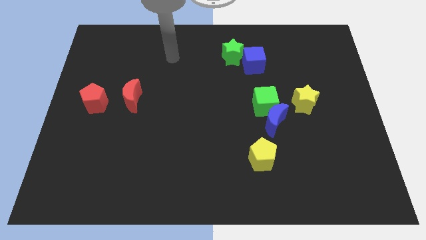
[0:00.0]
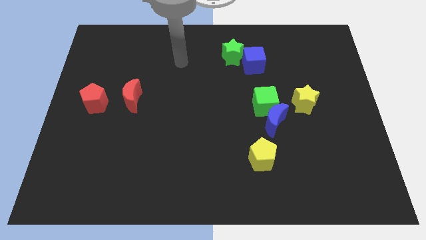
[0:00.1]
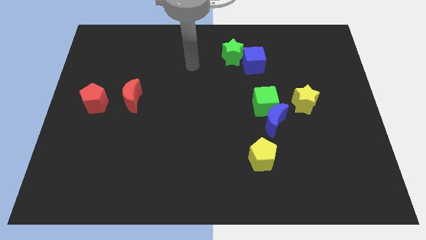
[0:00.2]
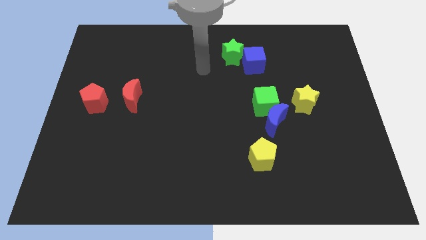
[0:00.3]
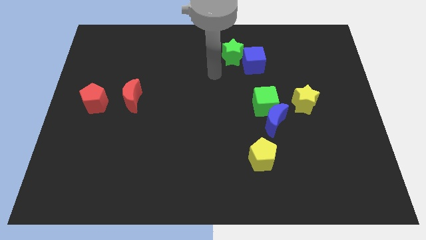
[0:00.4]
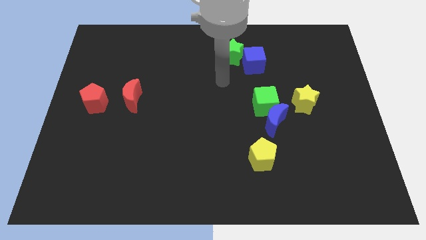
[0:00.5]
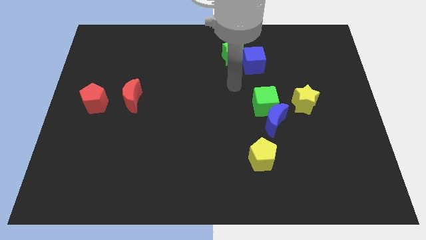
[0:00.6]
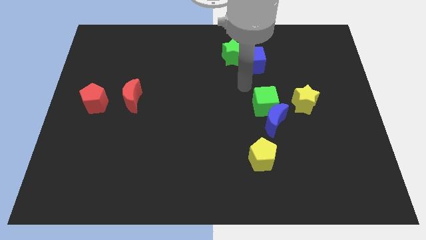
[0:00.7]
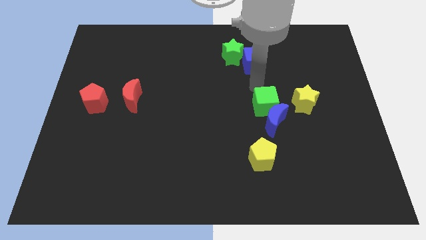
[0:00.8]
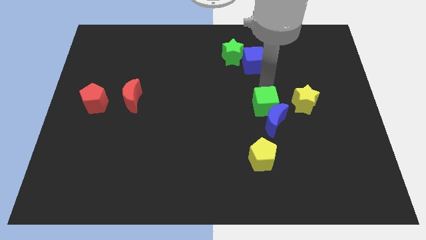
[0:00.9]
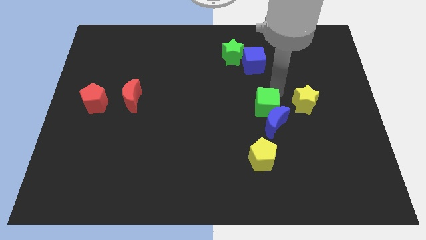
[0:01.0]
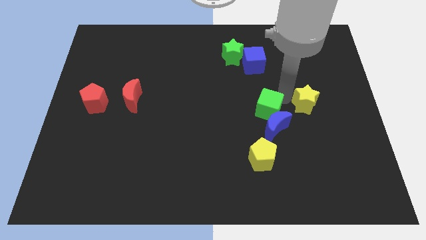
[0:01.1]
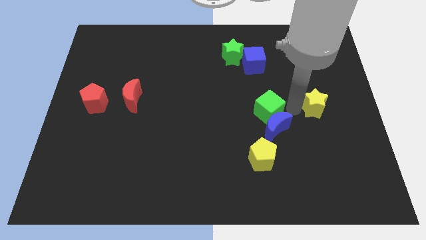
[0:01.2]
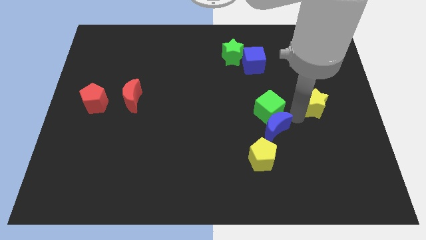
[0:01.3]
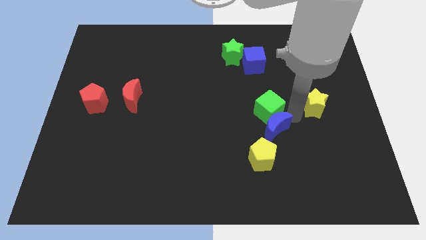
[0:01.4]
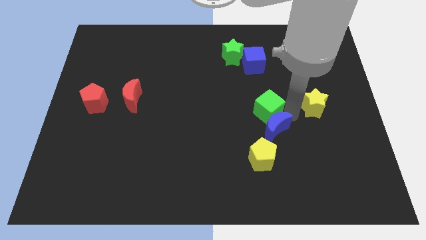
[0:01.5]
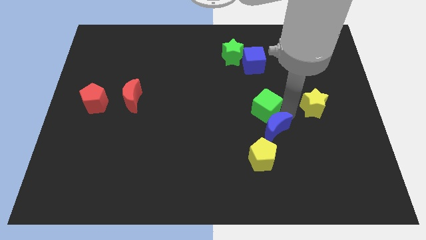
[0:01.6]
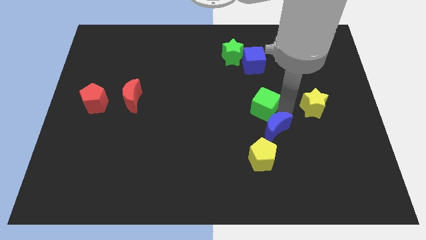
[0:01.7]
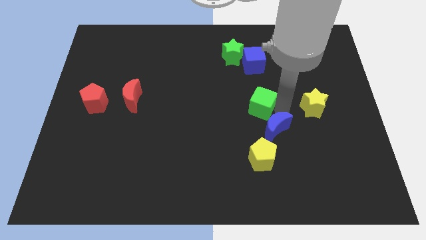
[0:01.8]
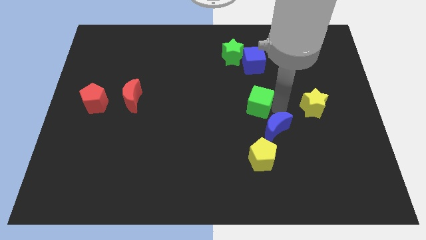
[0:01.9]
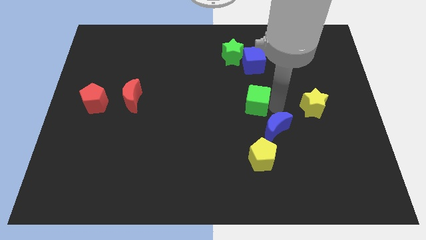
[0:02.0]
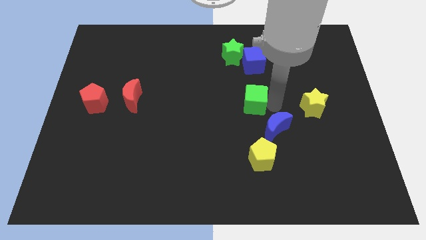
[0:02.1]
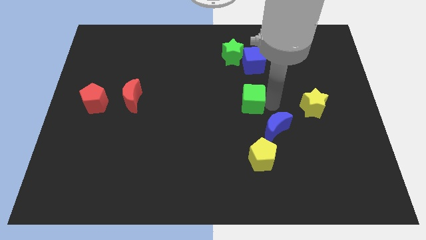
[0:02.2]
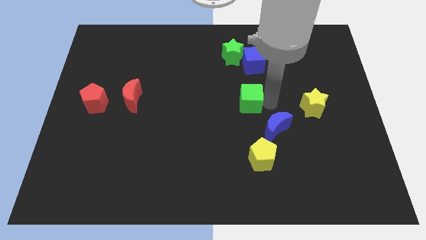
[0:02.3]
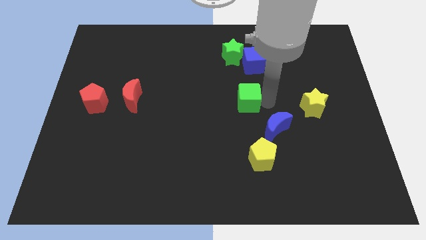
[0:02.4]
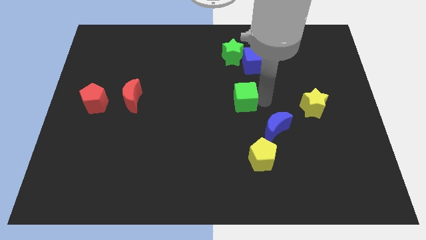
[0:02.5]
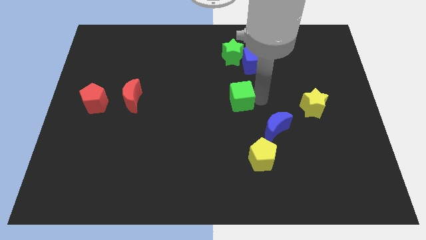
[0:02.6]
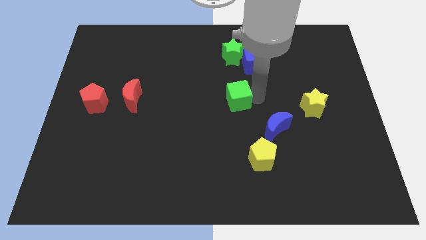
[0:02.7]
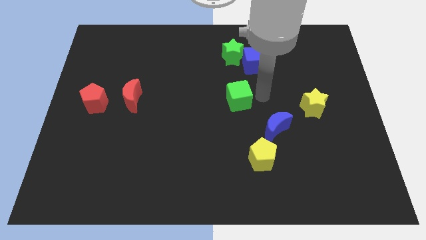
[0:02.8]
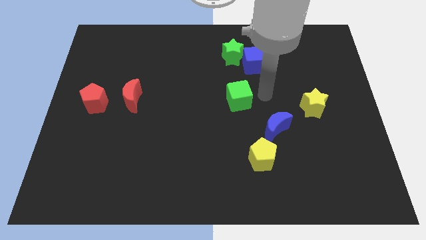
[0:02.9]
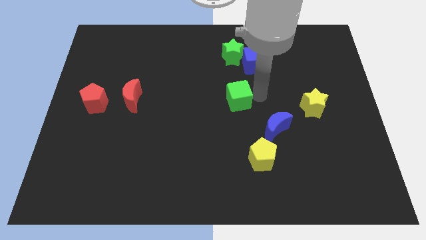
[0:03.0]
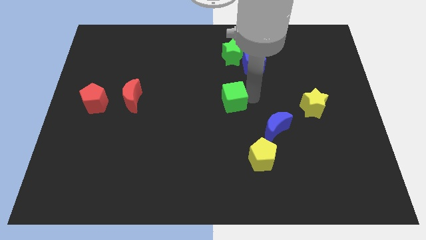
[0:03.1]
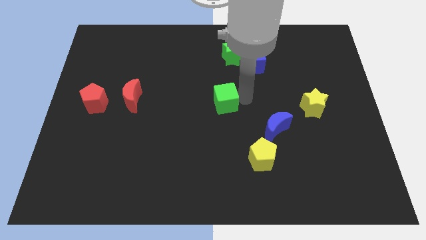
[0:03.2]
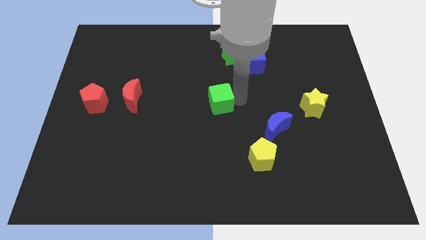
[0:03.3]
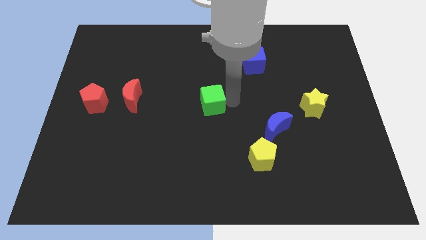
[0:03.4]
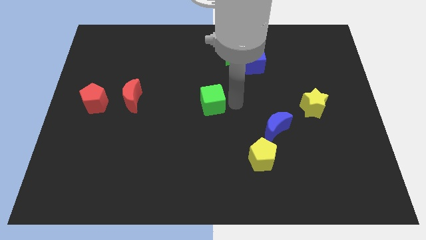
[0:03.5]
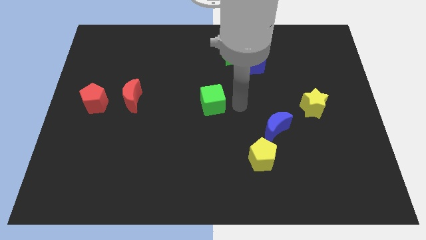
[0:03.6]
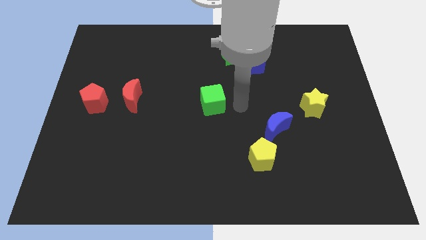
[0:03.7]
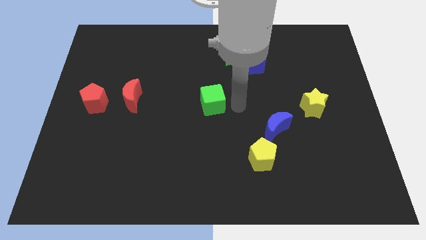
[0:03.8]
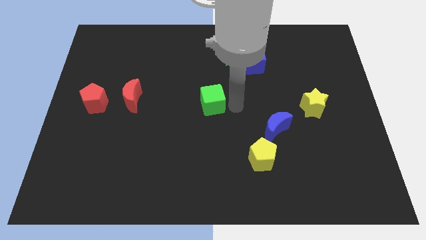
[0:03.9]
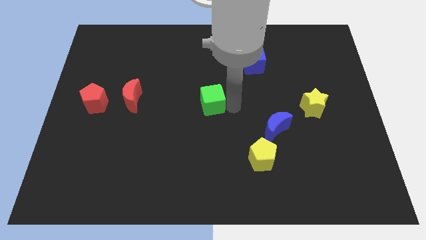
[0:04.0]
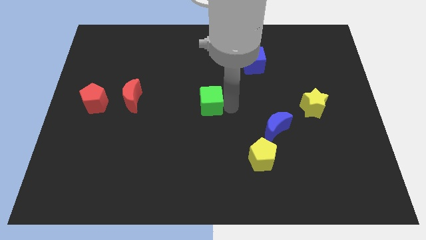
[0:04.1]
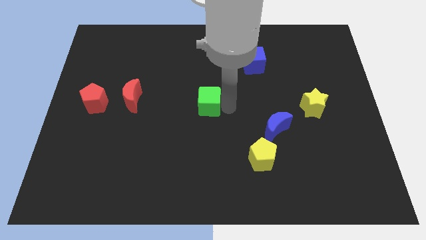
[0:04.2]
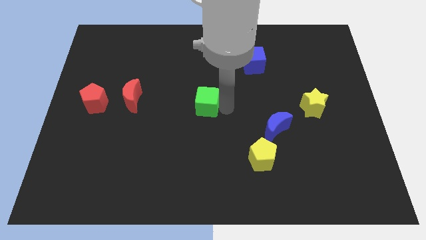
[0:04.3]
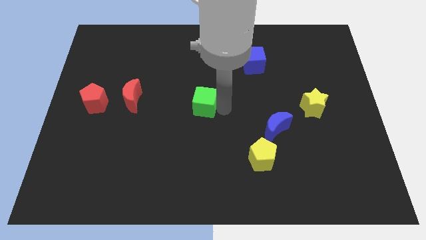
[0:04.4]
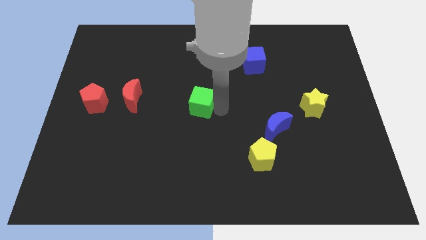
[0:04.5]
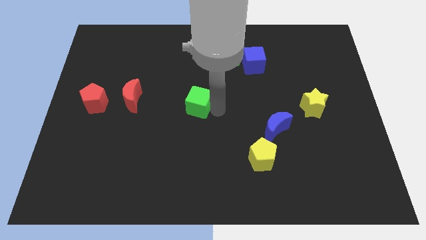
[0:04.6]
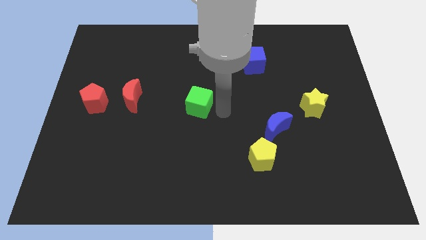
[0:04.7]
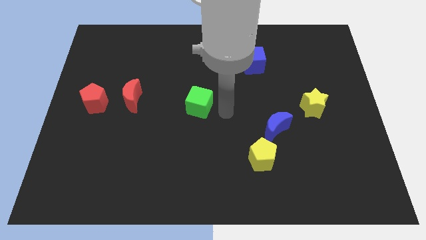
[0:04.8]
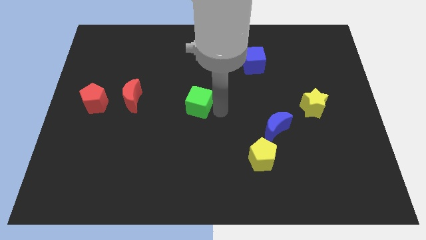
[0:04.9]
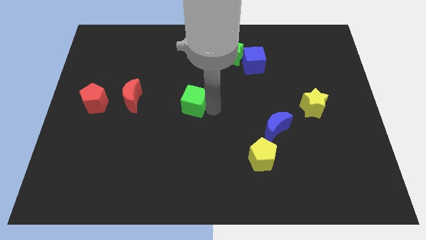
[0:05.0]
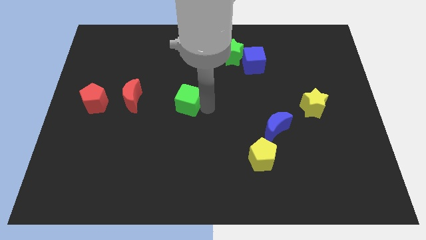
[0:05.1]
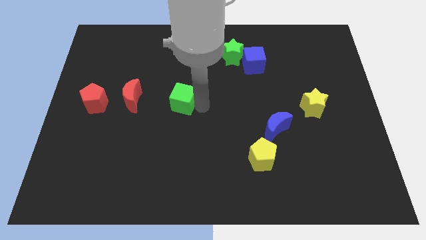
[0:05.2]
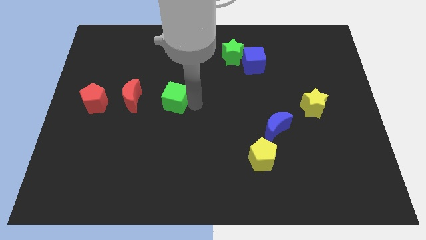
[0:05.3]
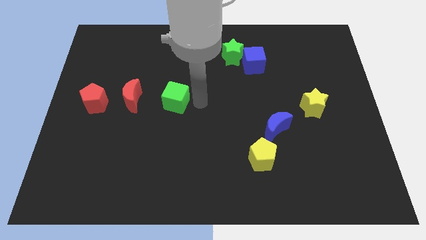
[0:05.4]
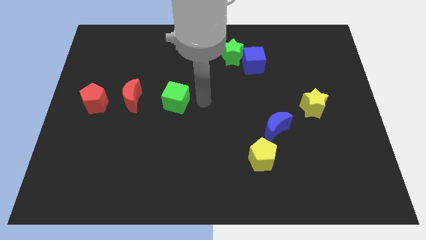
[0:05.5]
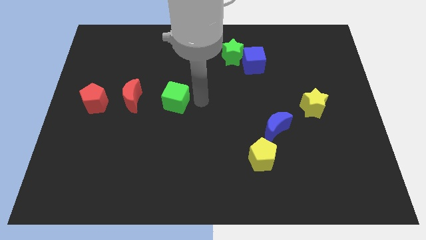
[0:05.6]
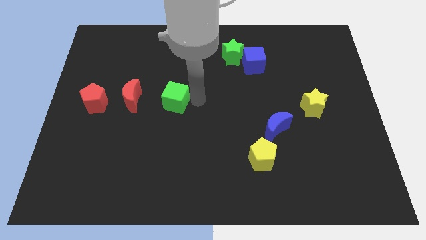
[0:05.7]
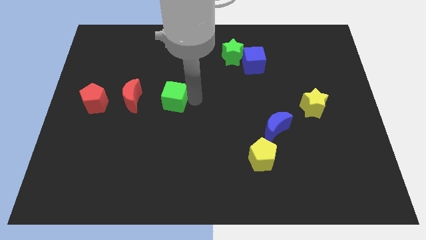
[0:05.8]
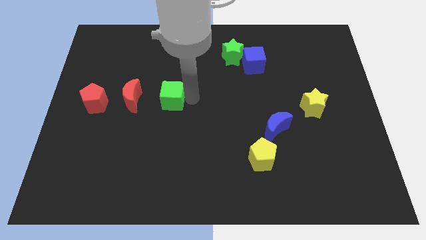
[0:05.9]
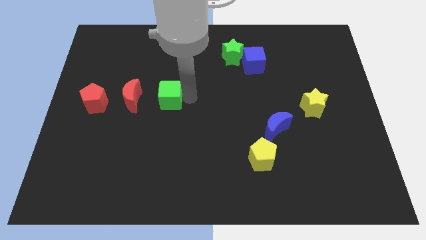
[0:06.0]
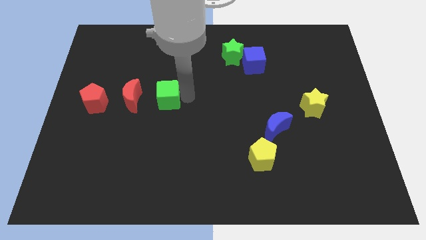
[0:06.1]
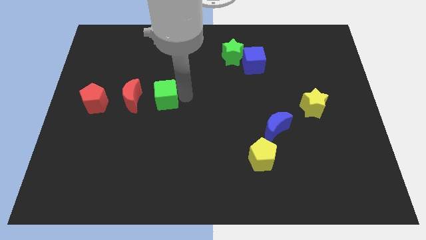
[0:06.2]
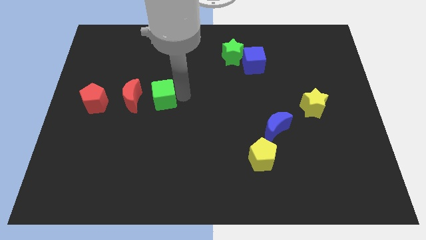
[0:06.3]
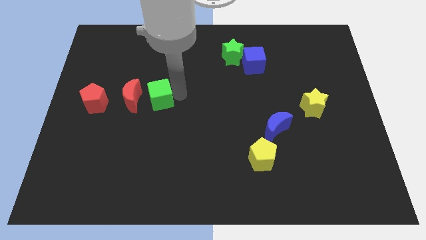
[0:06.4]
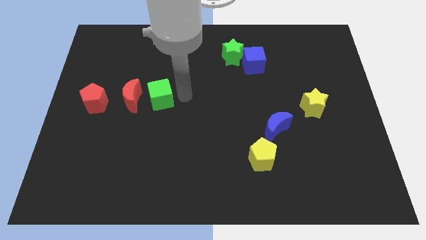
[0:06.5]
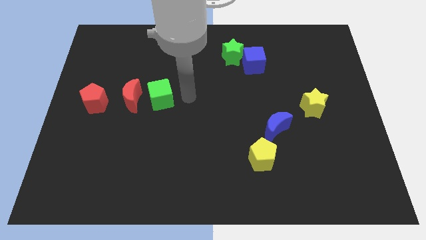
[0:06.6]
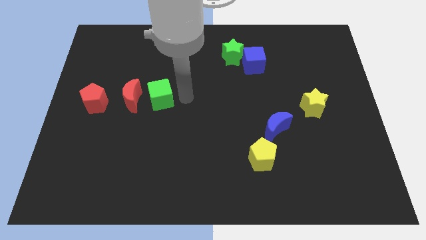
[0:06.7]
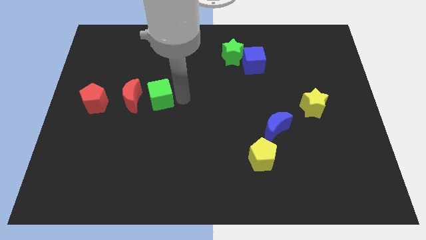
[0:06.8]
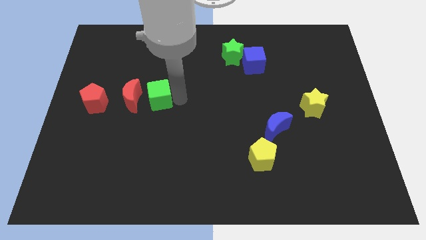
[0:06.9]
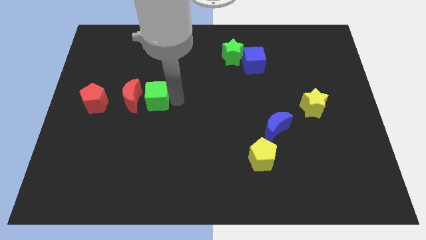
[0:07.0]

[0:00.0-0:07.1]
slide the green cube close to the red moon
